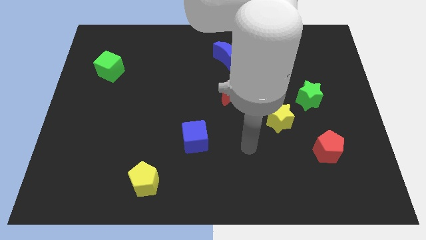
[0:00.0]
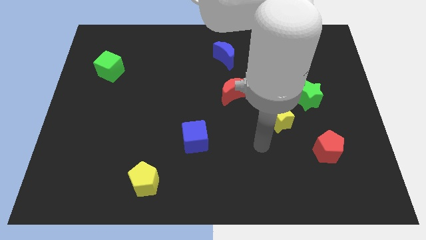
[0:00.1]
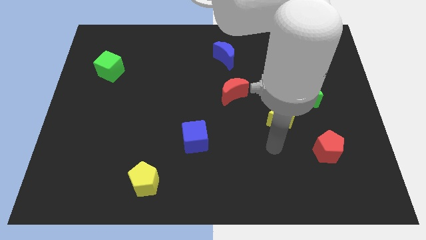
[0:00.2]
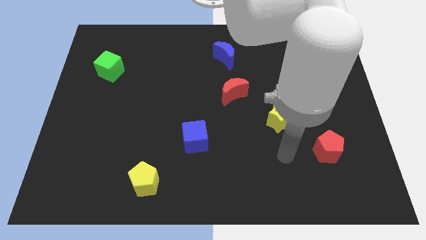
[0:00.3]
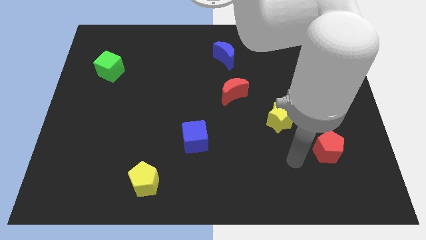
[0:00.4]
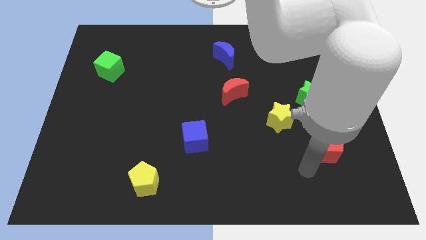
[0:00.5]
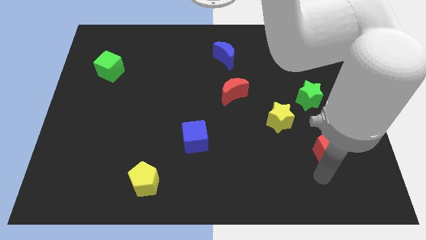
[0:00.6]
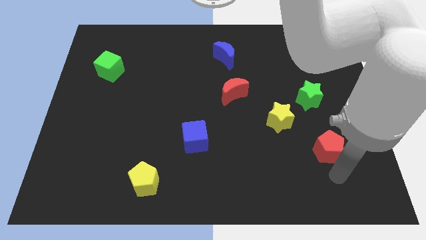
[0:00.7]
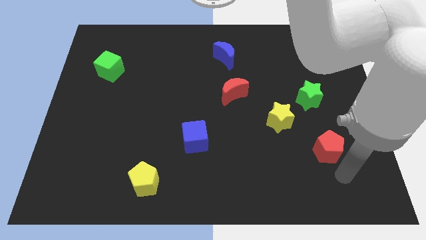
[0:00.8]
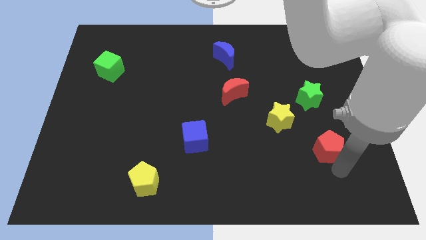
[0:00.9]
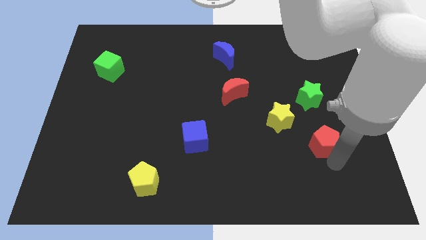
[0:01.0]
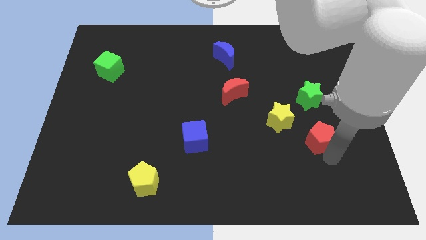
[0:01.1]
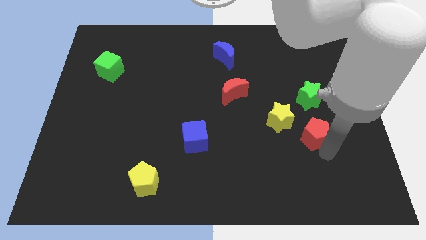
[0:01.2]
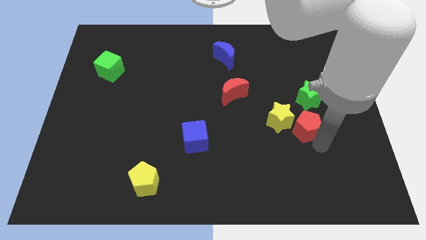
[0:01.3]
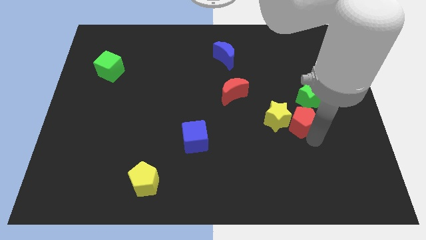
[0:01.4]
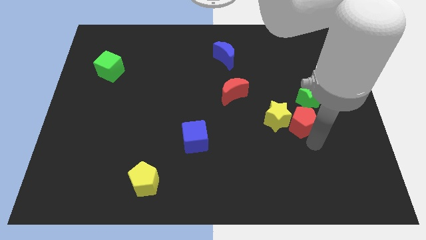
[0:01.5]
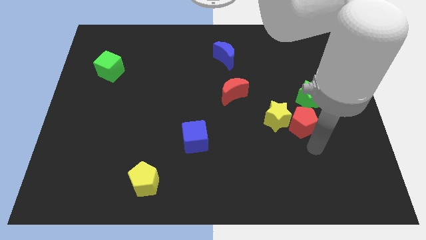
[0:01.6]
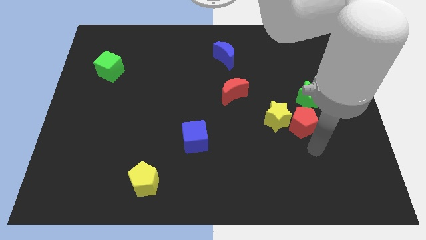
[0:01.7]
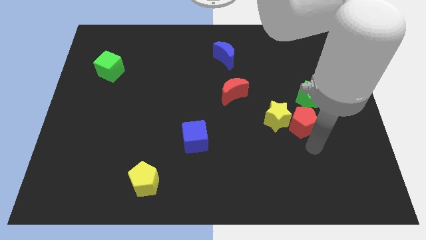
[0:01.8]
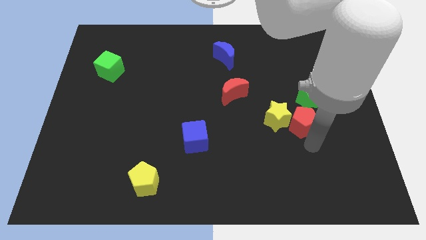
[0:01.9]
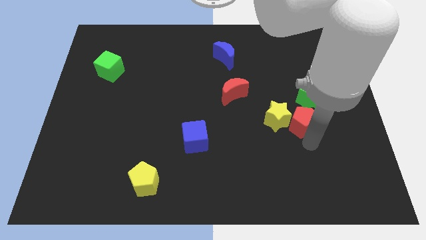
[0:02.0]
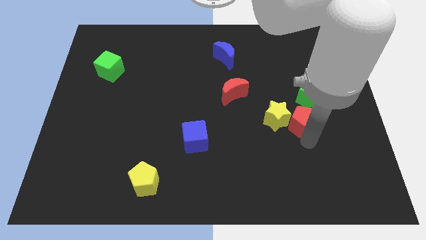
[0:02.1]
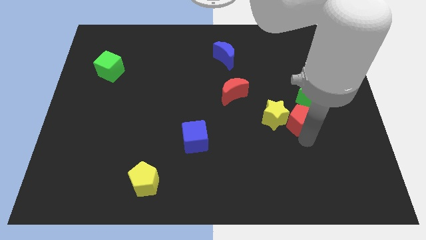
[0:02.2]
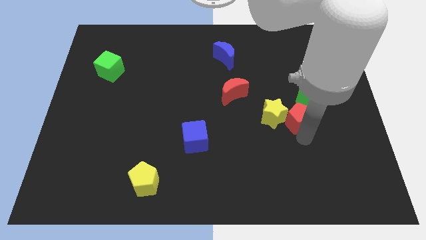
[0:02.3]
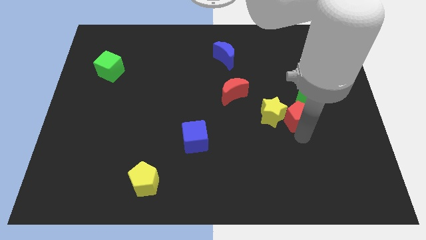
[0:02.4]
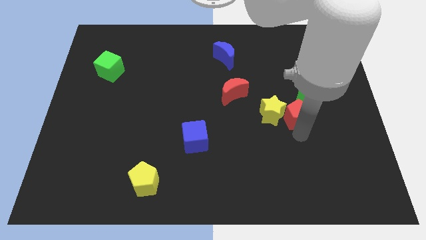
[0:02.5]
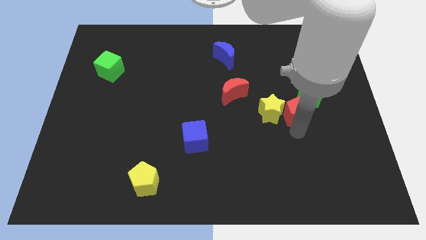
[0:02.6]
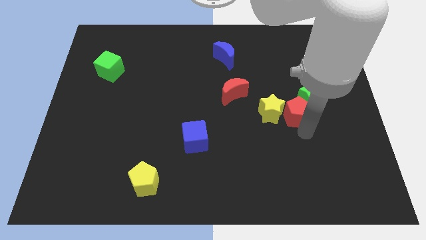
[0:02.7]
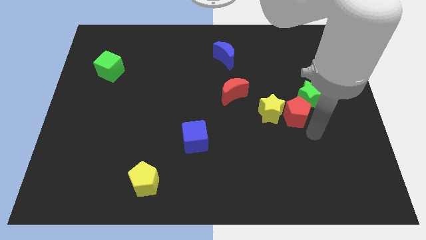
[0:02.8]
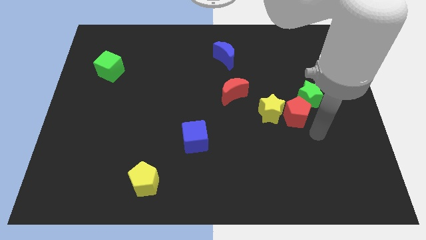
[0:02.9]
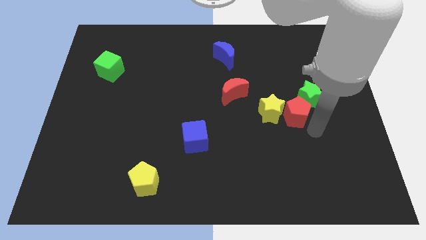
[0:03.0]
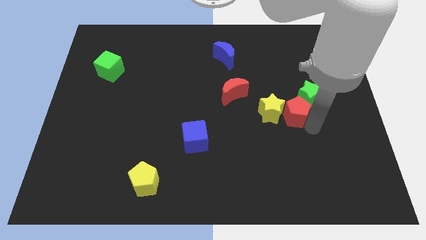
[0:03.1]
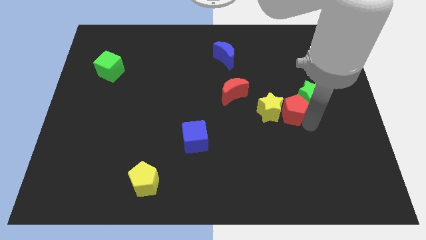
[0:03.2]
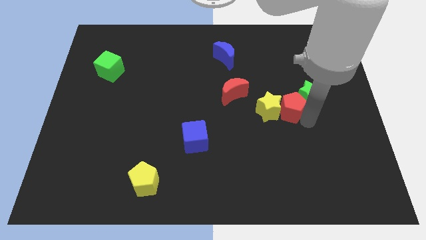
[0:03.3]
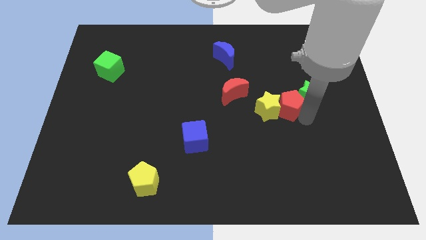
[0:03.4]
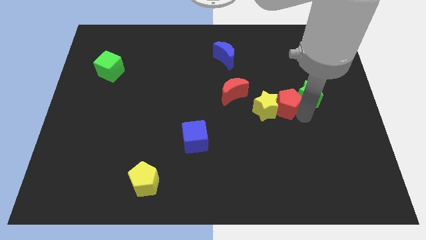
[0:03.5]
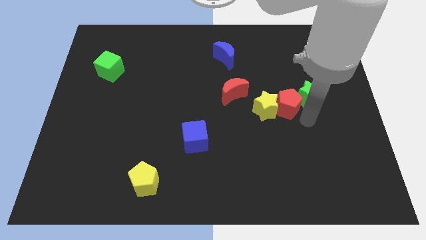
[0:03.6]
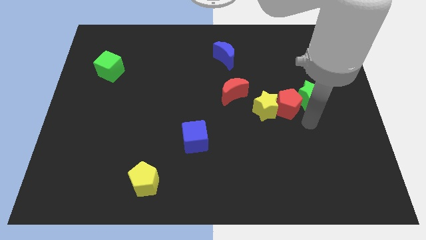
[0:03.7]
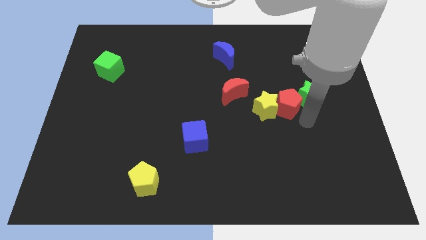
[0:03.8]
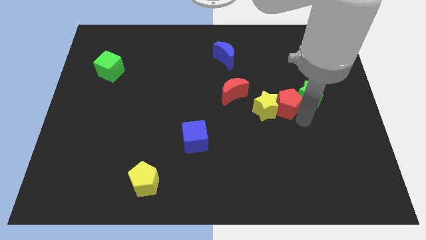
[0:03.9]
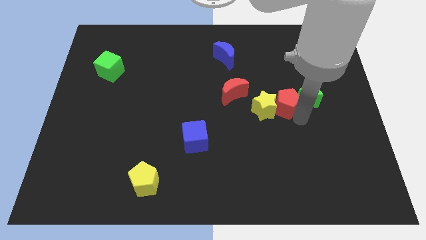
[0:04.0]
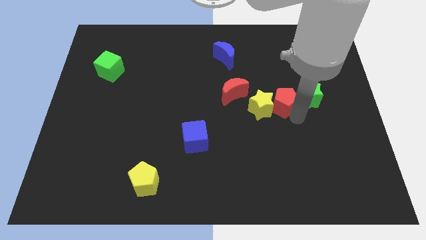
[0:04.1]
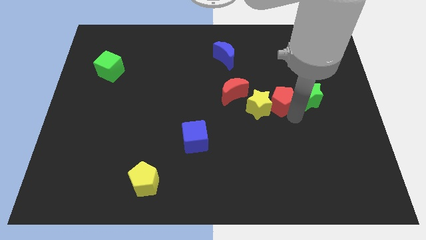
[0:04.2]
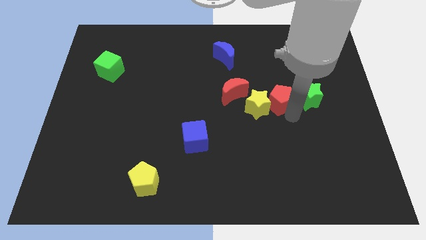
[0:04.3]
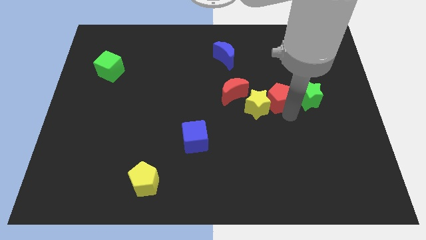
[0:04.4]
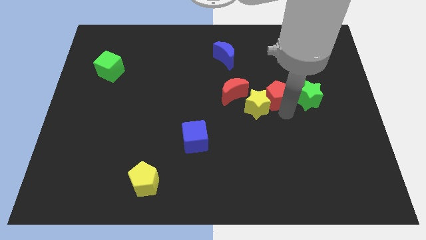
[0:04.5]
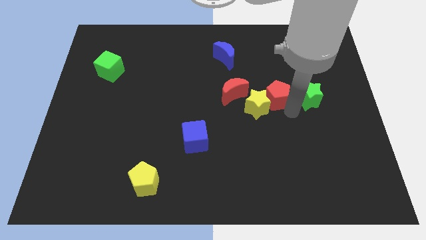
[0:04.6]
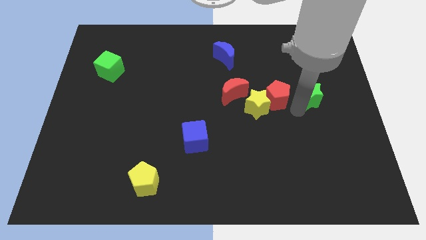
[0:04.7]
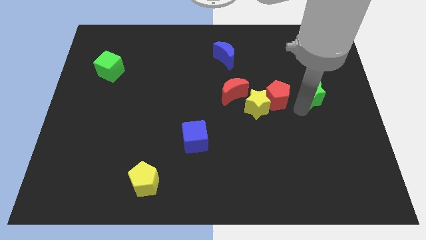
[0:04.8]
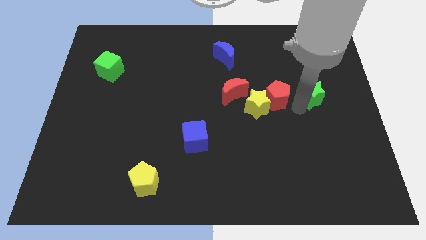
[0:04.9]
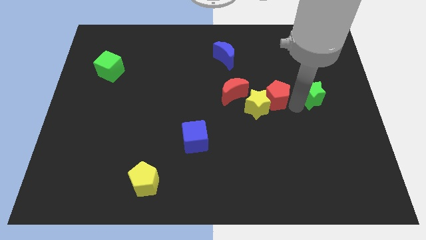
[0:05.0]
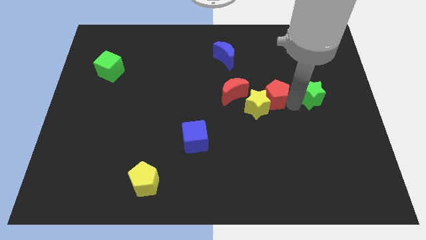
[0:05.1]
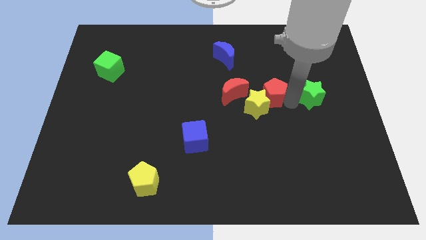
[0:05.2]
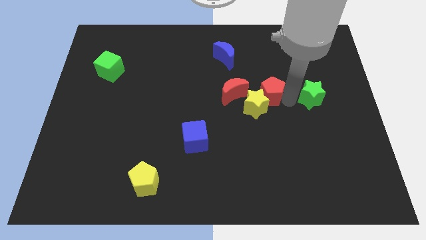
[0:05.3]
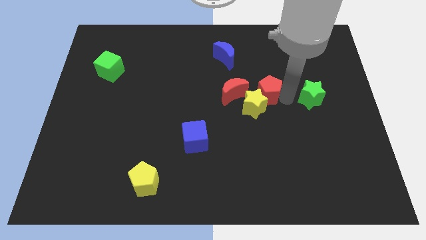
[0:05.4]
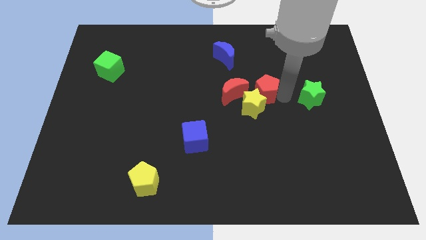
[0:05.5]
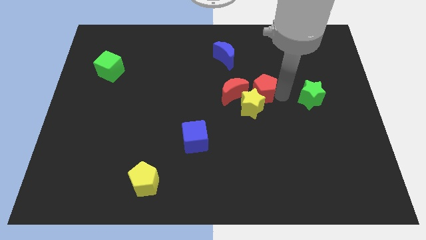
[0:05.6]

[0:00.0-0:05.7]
move the red pentagon up and left diagonally

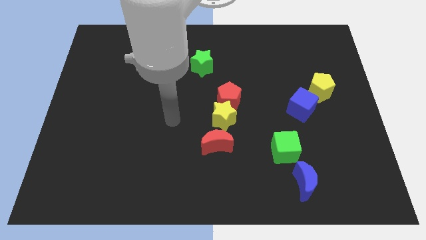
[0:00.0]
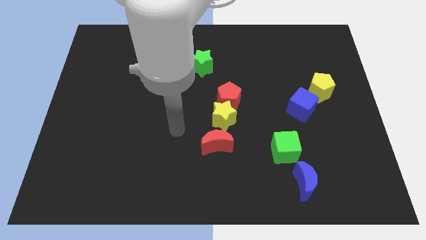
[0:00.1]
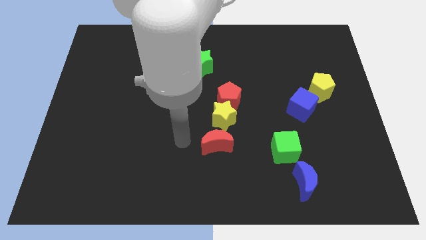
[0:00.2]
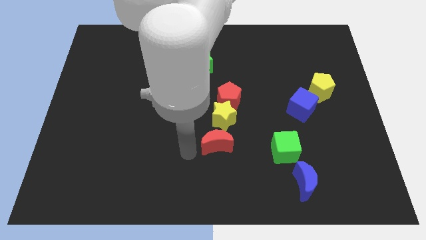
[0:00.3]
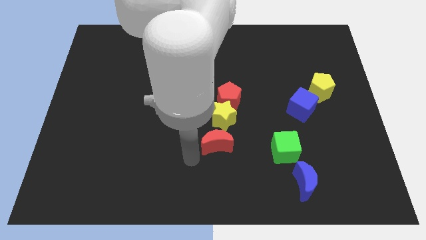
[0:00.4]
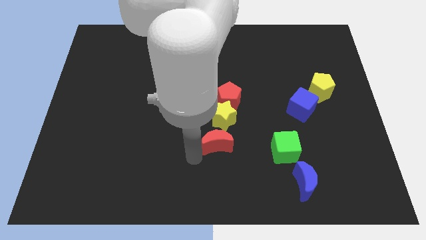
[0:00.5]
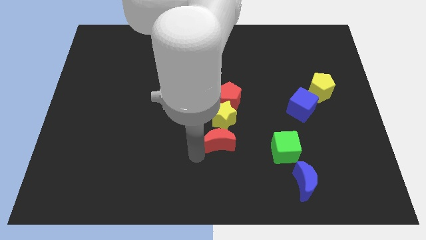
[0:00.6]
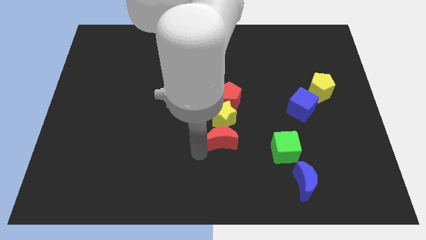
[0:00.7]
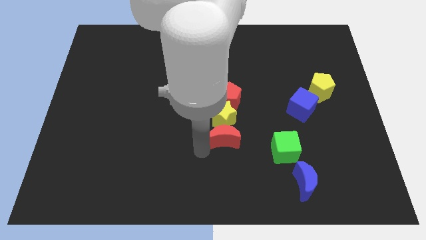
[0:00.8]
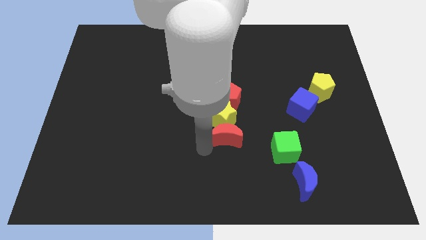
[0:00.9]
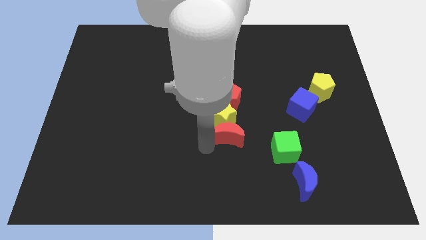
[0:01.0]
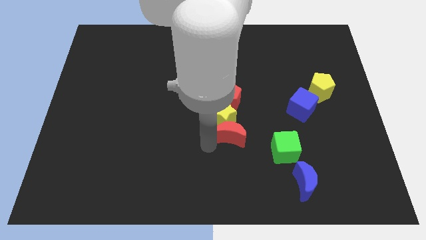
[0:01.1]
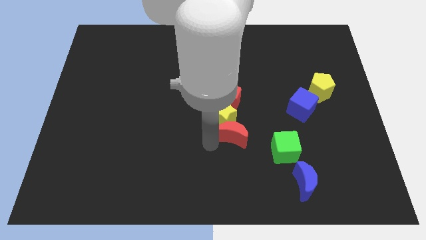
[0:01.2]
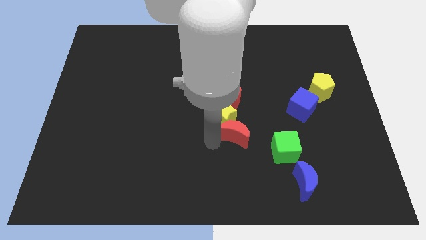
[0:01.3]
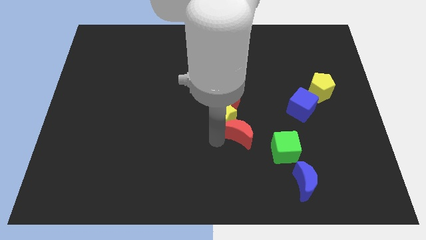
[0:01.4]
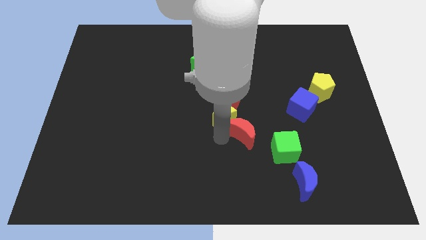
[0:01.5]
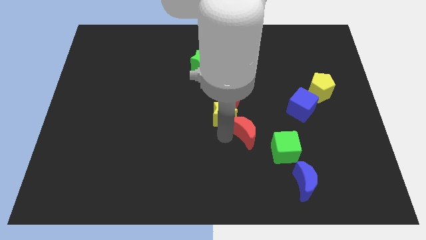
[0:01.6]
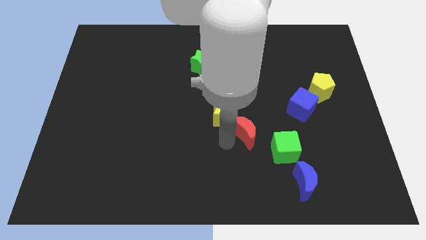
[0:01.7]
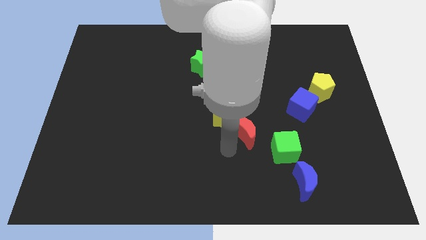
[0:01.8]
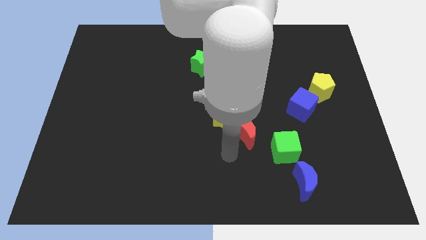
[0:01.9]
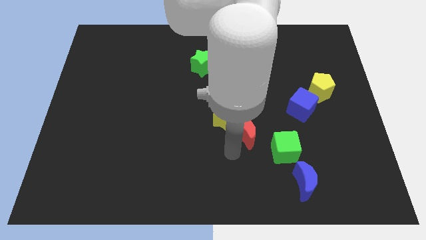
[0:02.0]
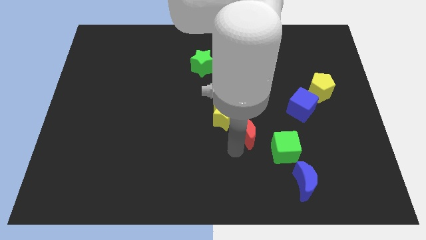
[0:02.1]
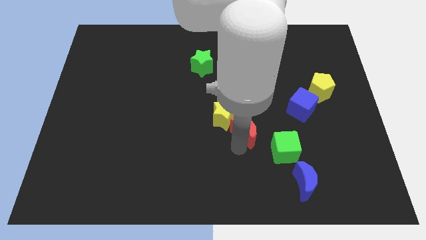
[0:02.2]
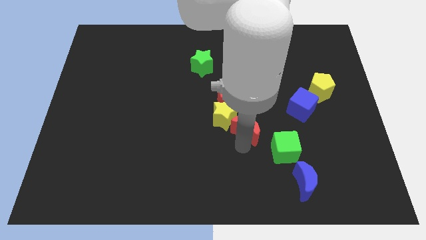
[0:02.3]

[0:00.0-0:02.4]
move the red moon a bit upwards and right
